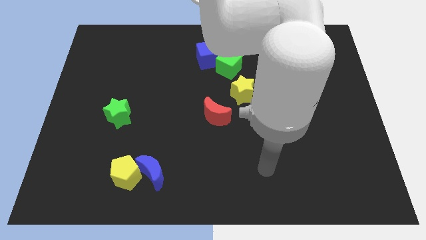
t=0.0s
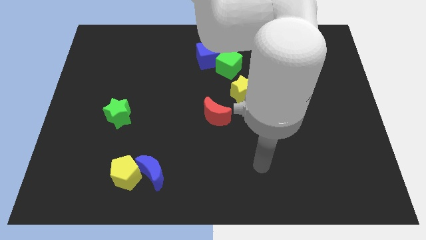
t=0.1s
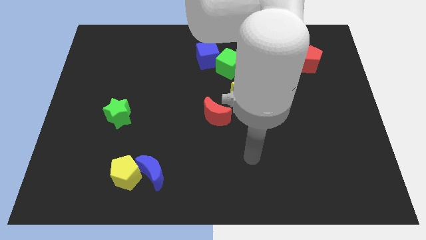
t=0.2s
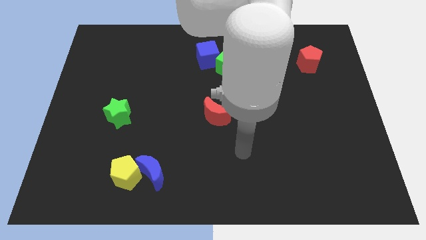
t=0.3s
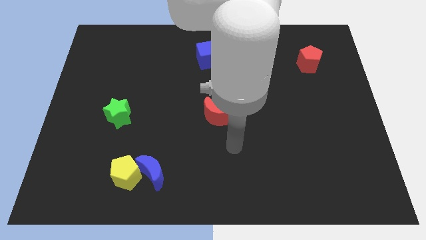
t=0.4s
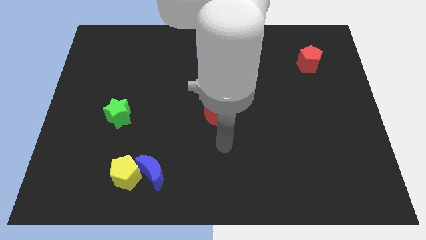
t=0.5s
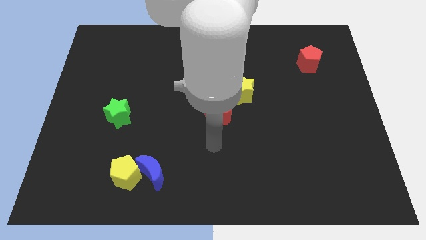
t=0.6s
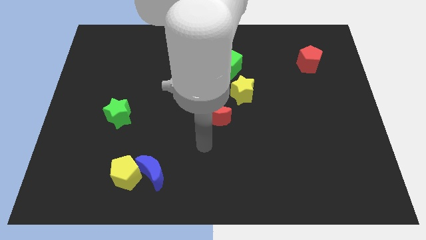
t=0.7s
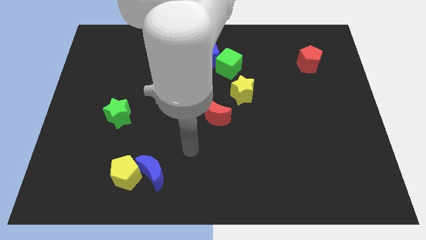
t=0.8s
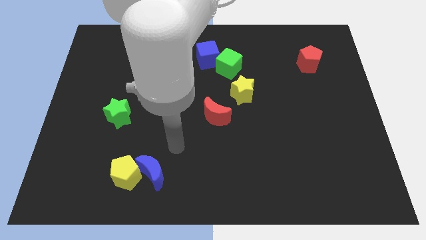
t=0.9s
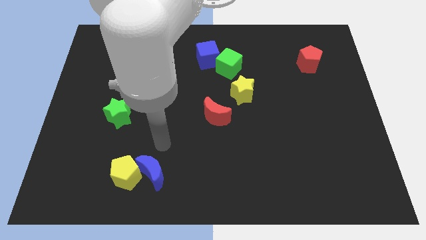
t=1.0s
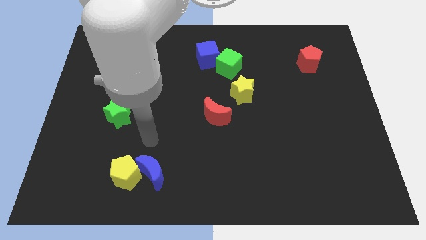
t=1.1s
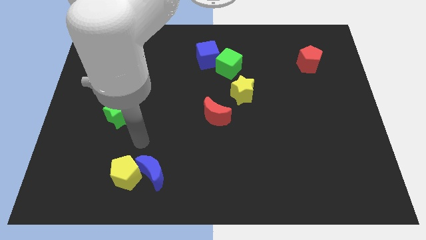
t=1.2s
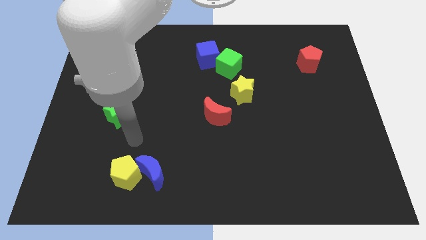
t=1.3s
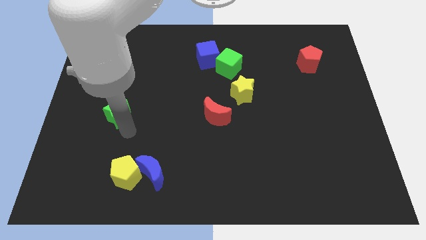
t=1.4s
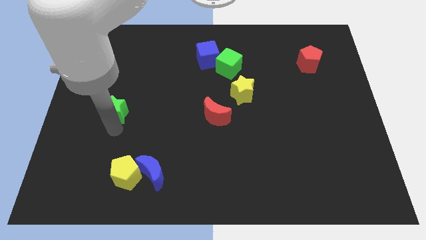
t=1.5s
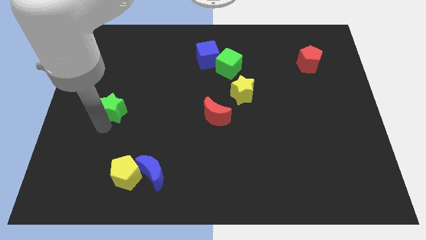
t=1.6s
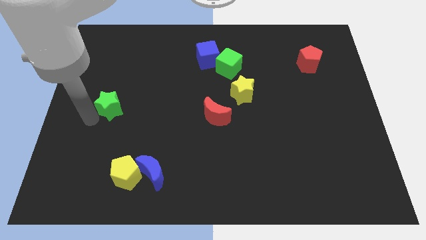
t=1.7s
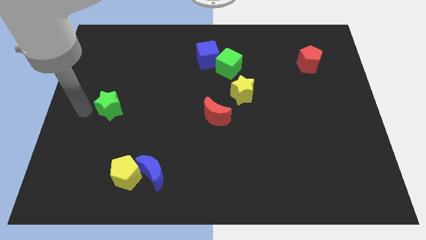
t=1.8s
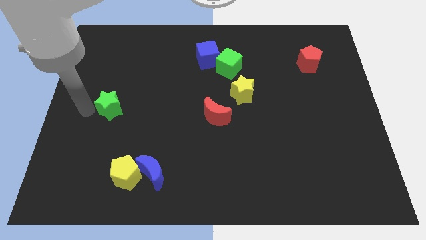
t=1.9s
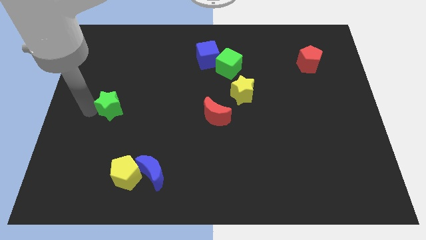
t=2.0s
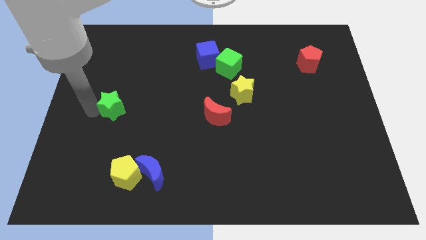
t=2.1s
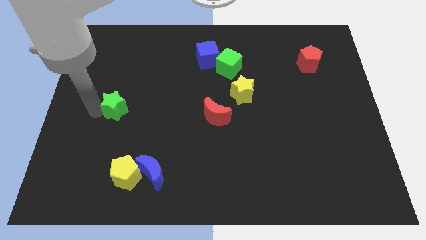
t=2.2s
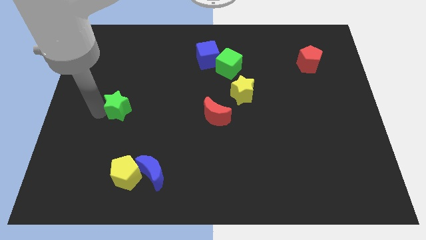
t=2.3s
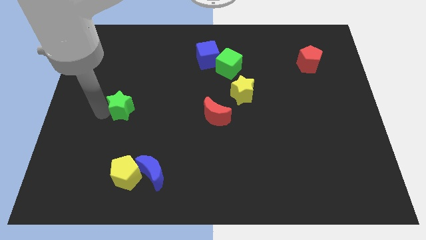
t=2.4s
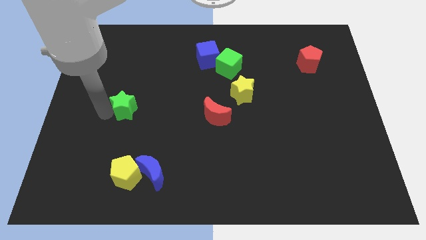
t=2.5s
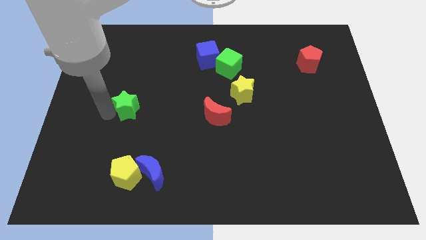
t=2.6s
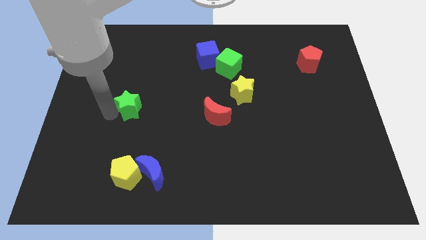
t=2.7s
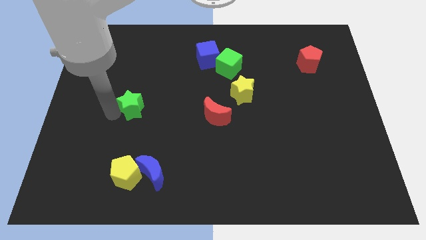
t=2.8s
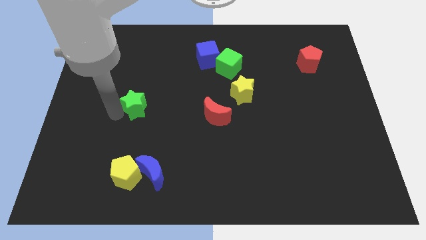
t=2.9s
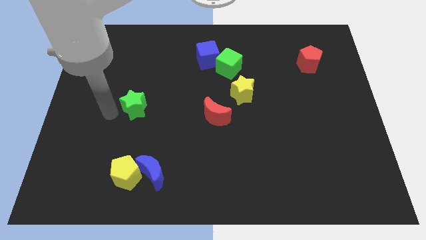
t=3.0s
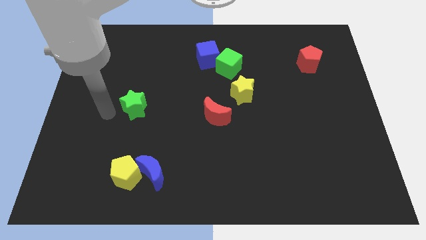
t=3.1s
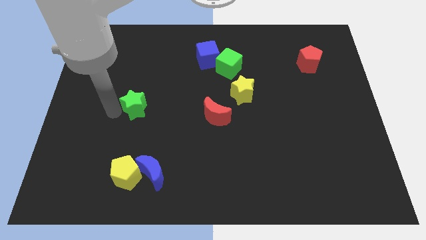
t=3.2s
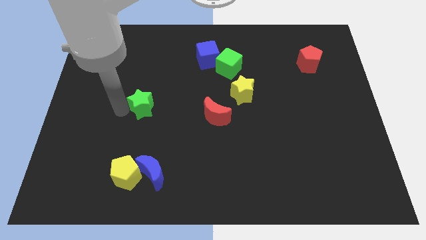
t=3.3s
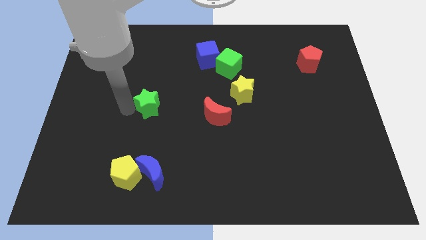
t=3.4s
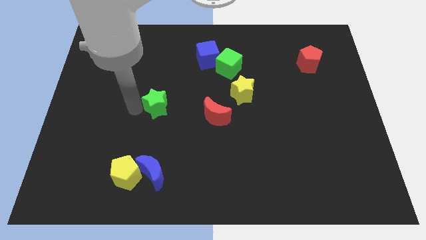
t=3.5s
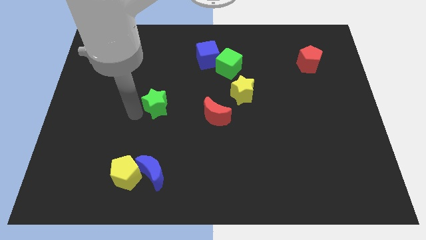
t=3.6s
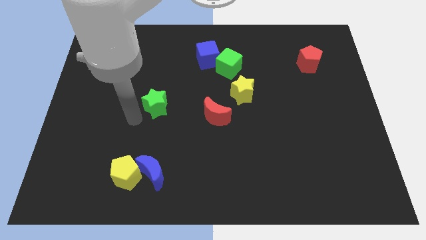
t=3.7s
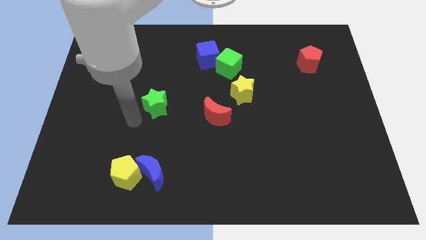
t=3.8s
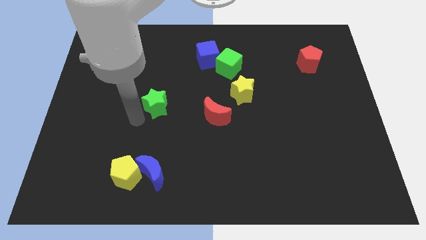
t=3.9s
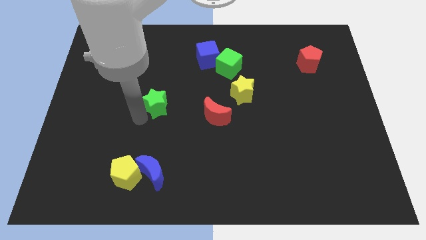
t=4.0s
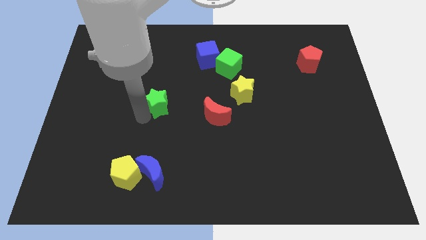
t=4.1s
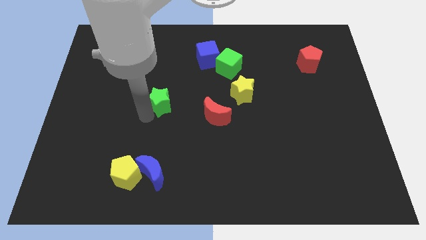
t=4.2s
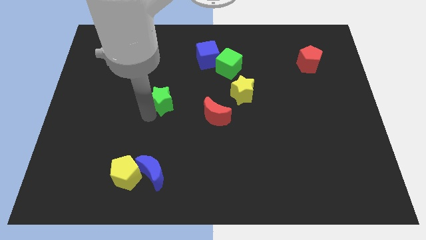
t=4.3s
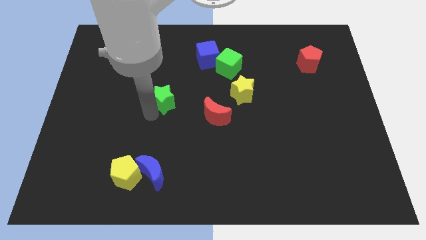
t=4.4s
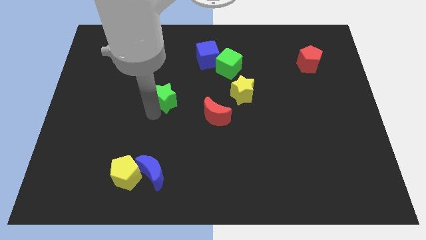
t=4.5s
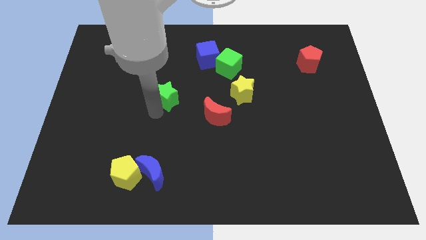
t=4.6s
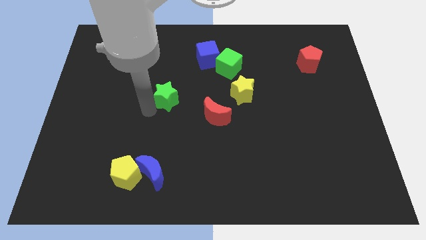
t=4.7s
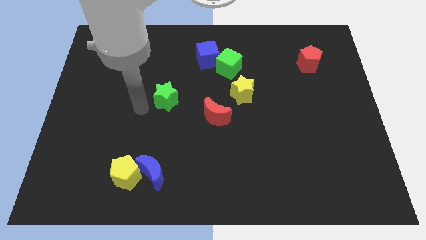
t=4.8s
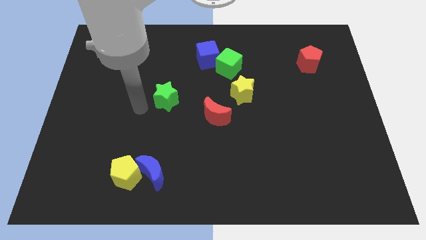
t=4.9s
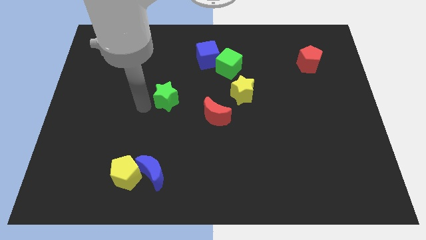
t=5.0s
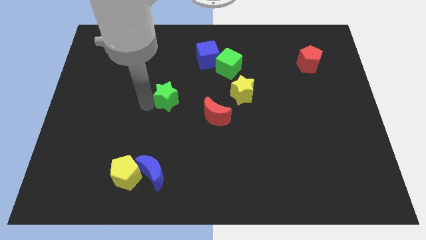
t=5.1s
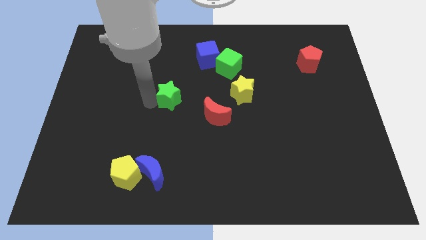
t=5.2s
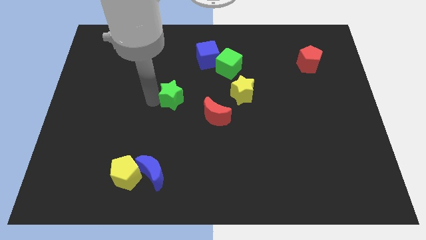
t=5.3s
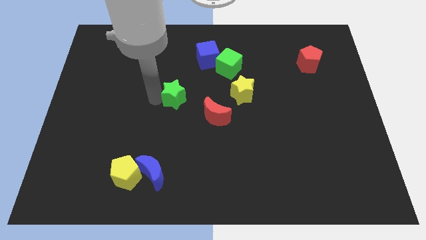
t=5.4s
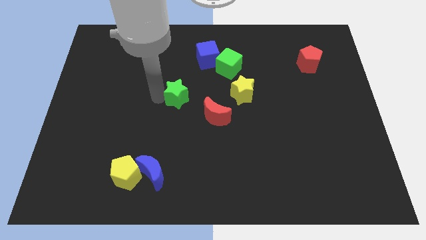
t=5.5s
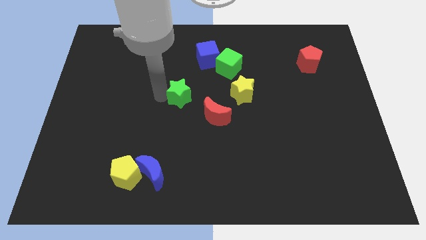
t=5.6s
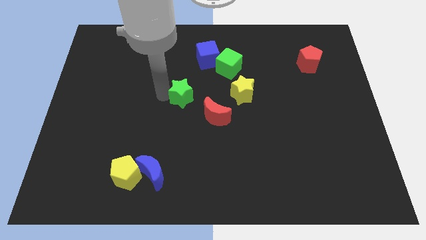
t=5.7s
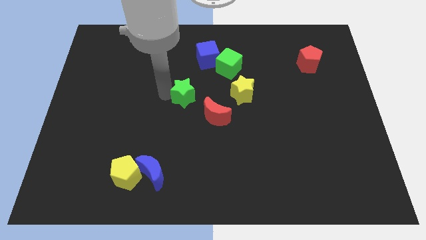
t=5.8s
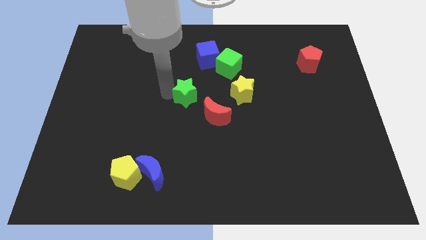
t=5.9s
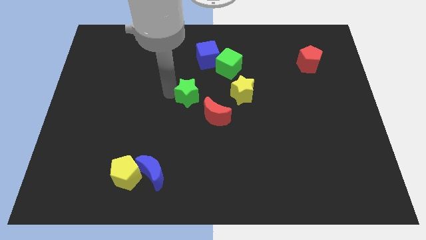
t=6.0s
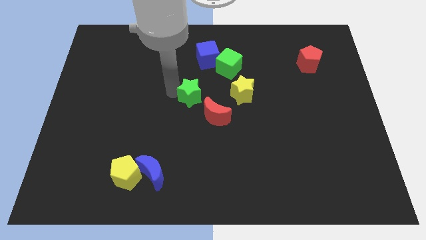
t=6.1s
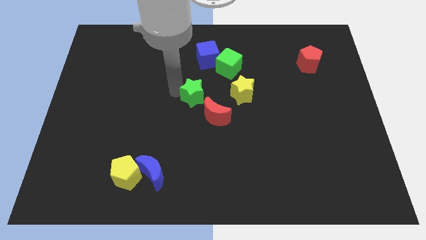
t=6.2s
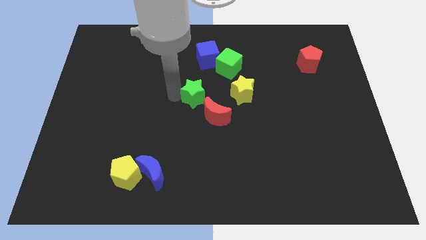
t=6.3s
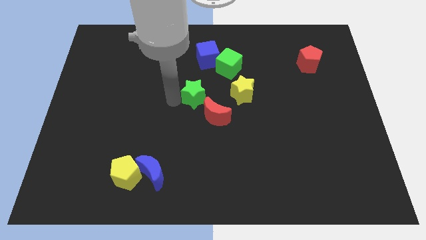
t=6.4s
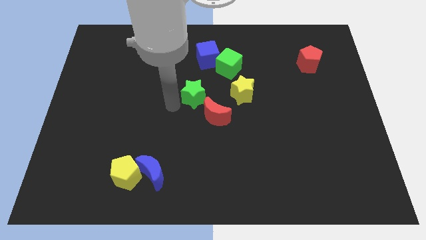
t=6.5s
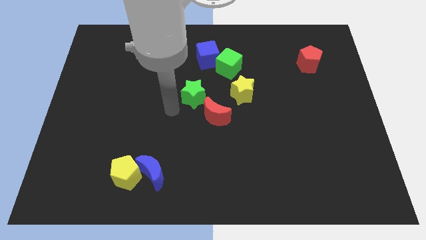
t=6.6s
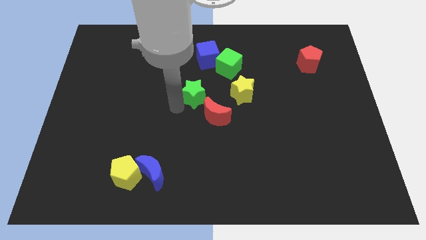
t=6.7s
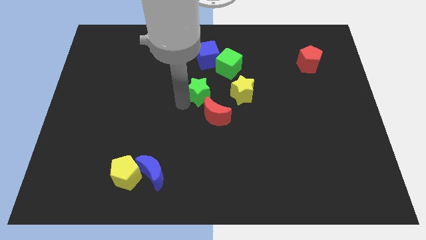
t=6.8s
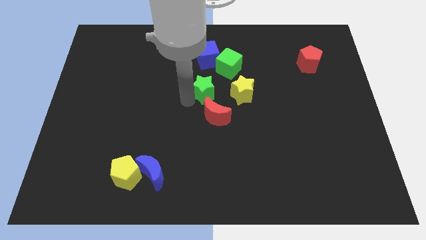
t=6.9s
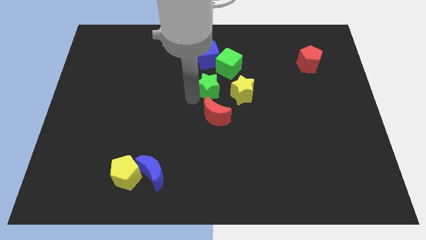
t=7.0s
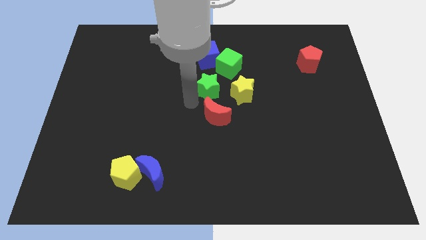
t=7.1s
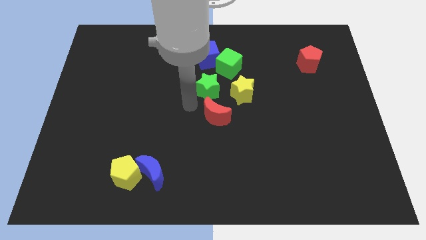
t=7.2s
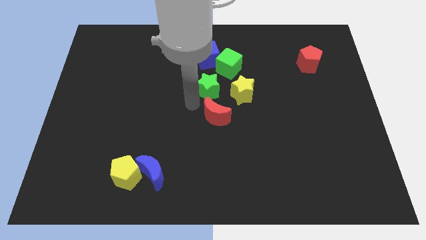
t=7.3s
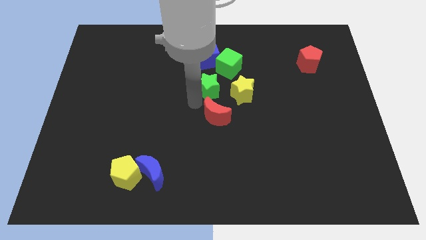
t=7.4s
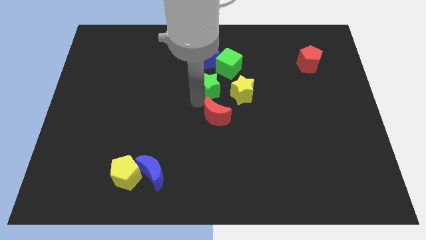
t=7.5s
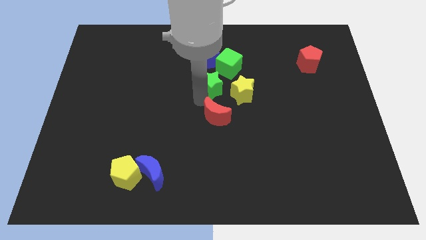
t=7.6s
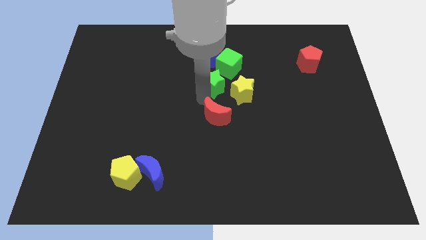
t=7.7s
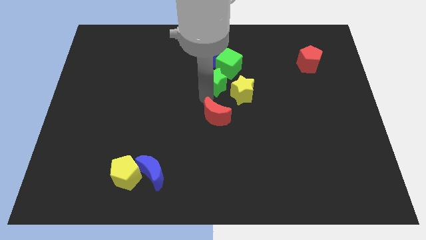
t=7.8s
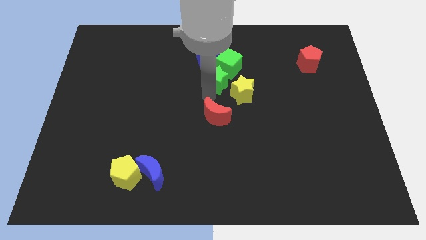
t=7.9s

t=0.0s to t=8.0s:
push the green star diagonally down and to the right of the blue cube
